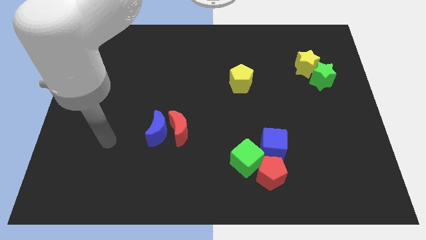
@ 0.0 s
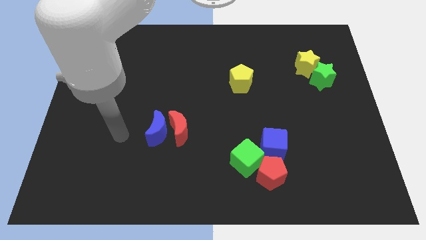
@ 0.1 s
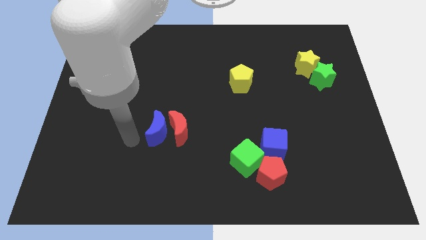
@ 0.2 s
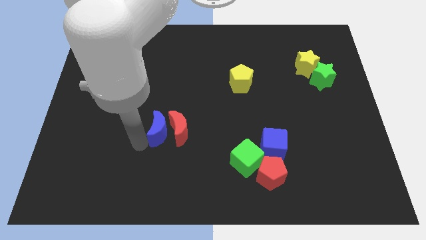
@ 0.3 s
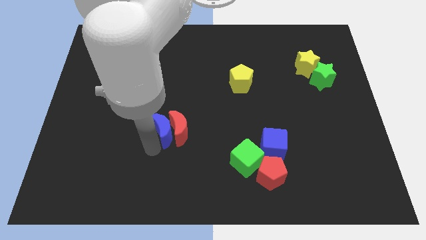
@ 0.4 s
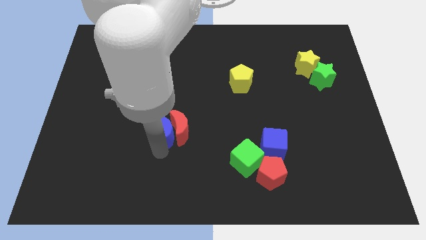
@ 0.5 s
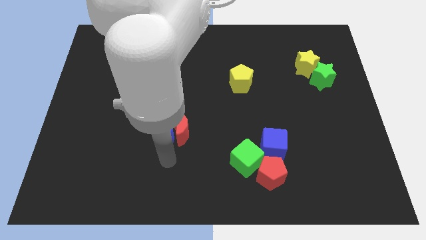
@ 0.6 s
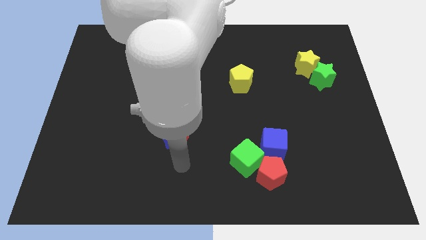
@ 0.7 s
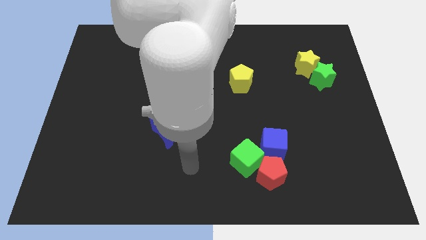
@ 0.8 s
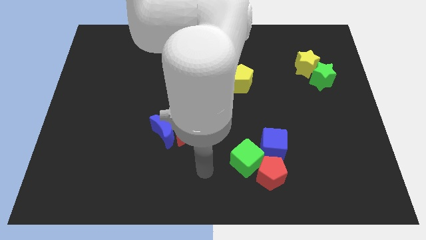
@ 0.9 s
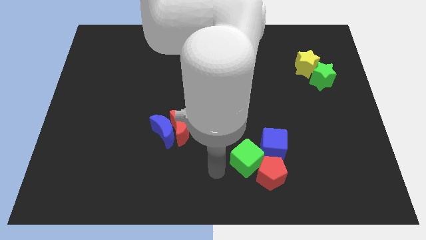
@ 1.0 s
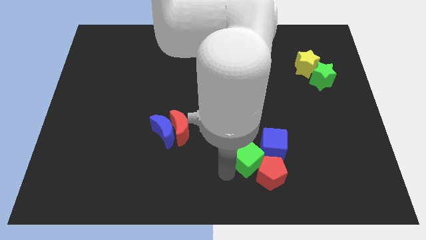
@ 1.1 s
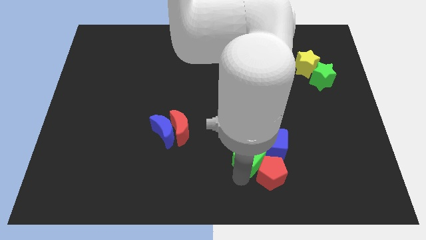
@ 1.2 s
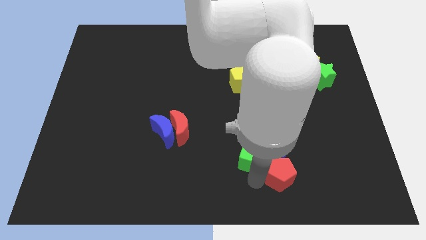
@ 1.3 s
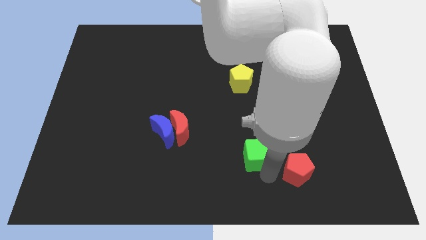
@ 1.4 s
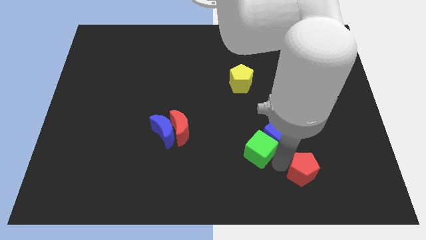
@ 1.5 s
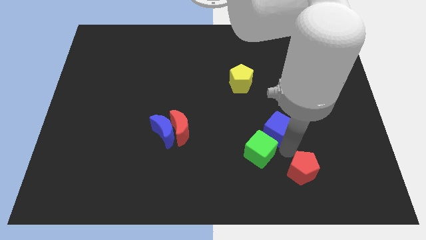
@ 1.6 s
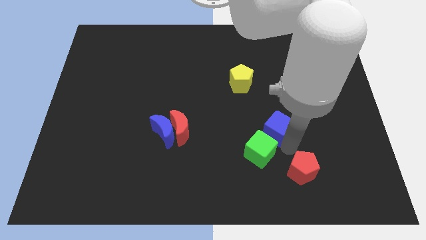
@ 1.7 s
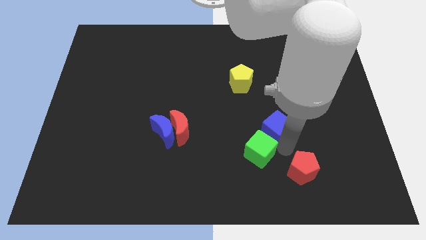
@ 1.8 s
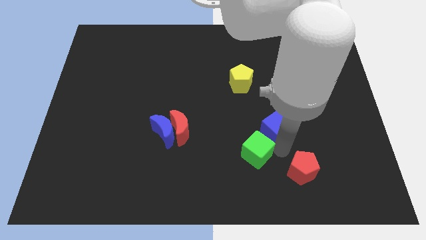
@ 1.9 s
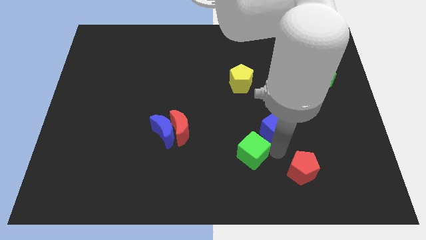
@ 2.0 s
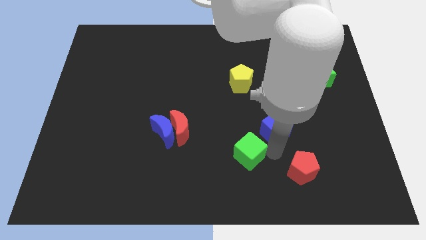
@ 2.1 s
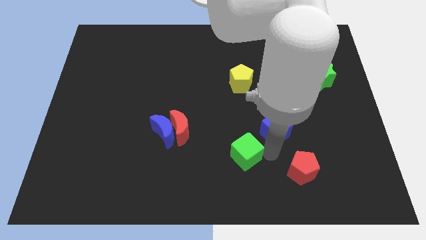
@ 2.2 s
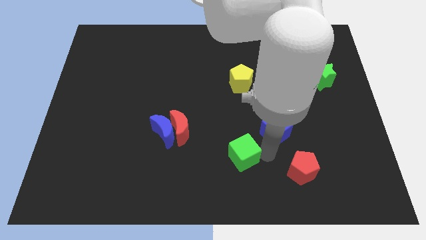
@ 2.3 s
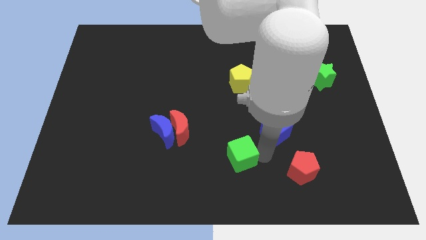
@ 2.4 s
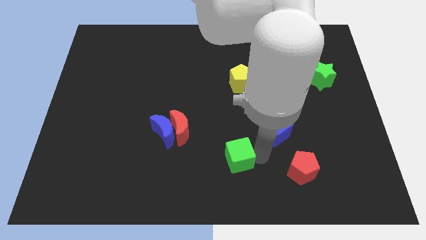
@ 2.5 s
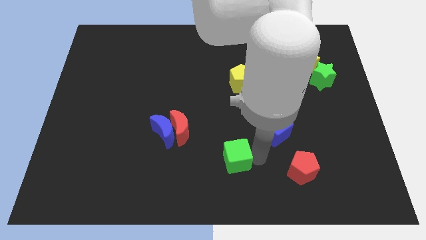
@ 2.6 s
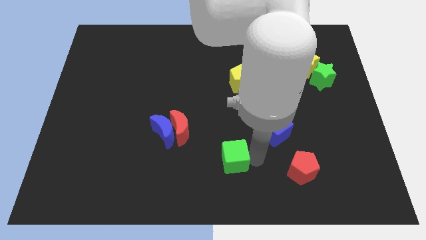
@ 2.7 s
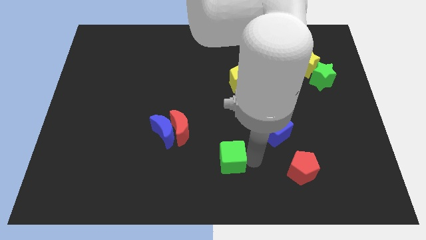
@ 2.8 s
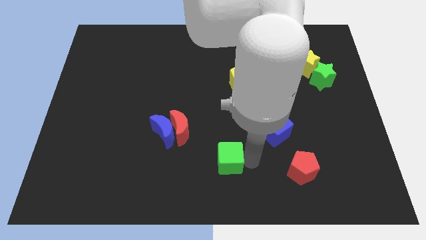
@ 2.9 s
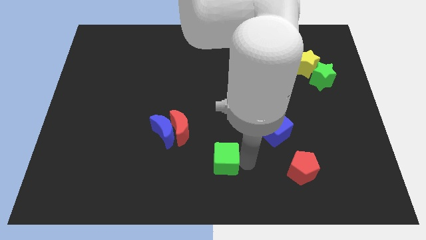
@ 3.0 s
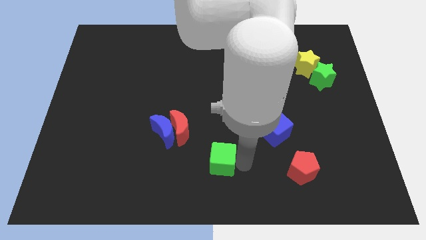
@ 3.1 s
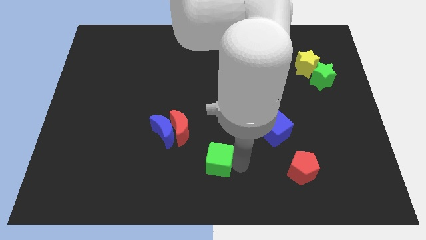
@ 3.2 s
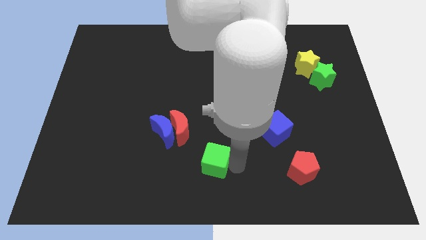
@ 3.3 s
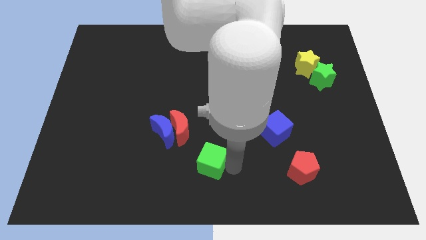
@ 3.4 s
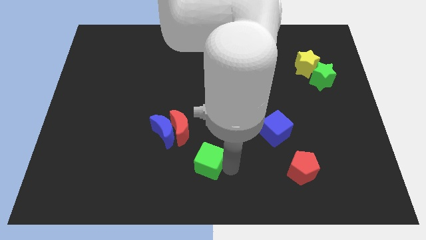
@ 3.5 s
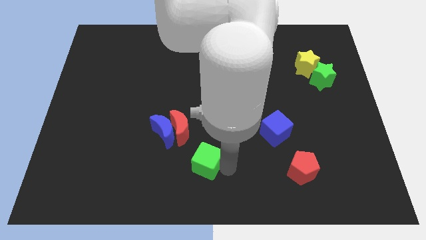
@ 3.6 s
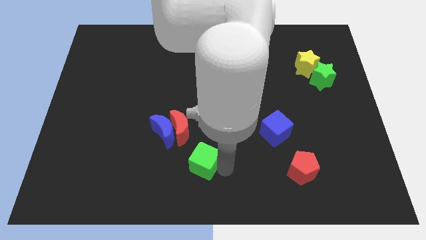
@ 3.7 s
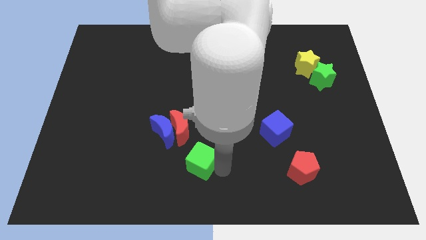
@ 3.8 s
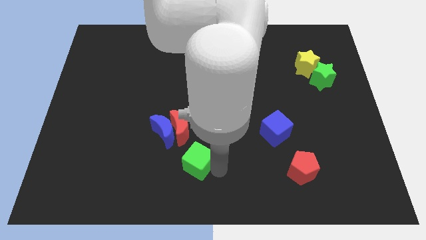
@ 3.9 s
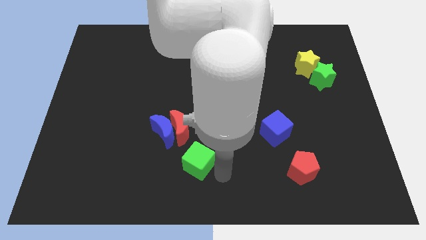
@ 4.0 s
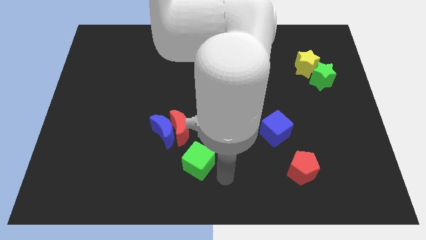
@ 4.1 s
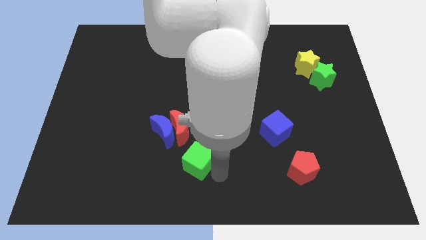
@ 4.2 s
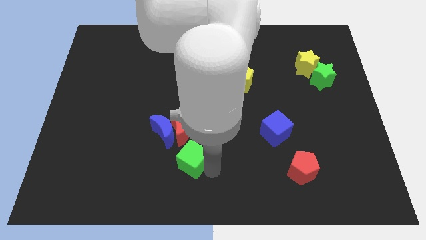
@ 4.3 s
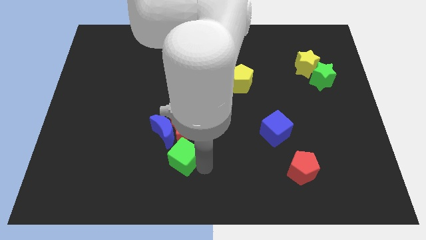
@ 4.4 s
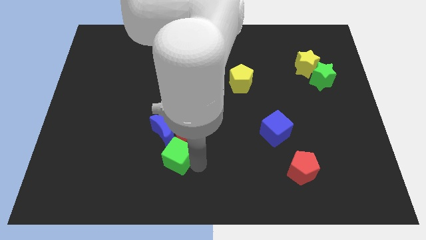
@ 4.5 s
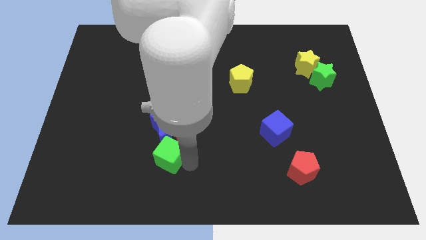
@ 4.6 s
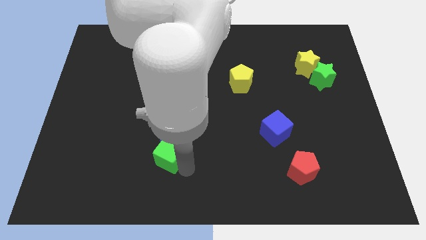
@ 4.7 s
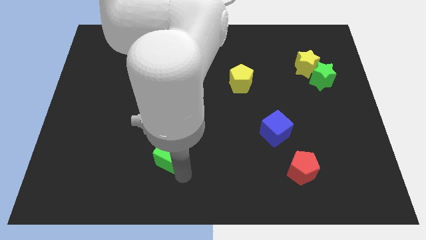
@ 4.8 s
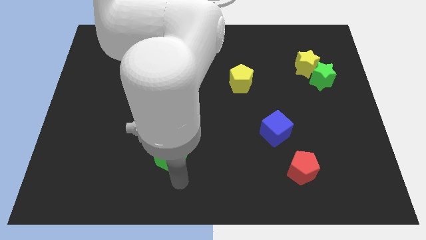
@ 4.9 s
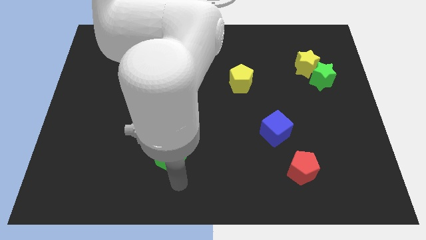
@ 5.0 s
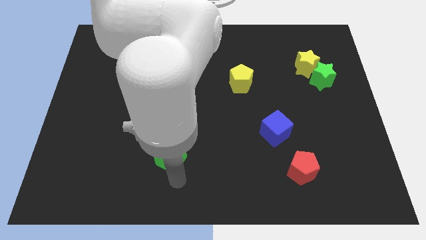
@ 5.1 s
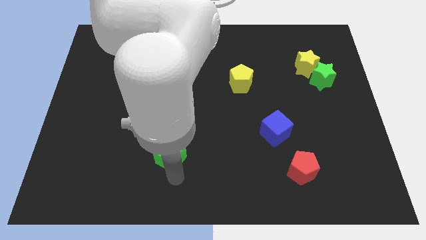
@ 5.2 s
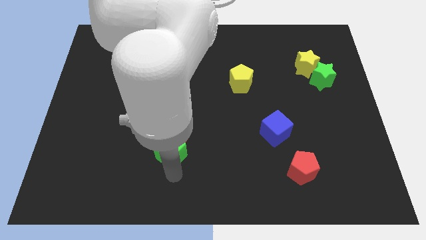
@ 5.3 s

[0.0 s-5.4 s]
put the green cube towards the blue moon

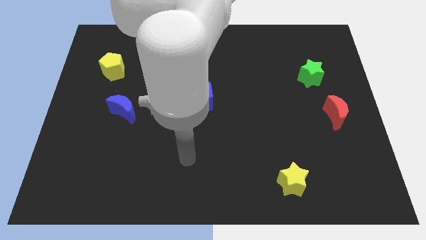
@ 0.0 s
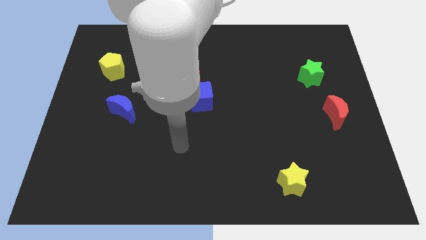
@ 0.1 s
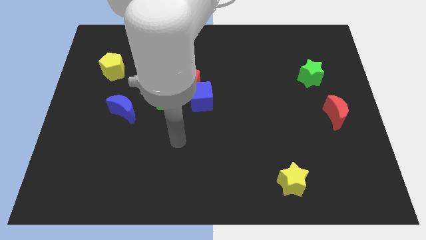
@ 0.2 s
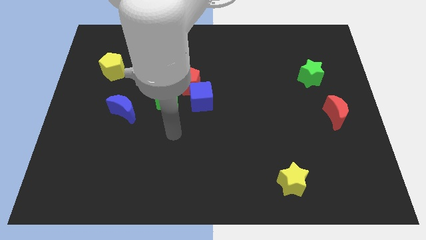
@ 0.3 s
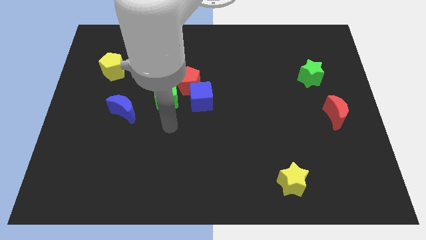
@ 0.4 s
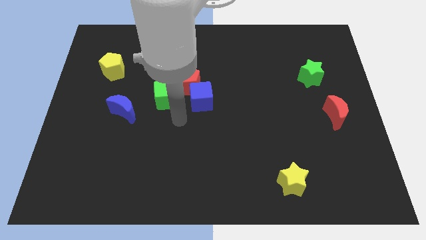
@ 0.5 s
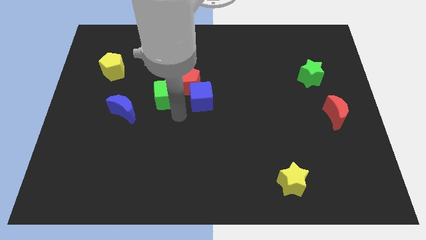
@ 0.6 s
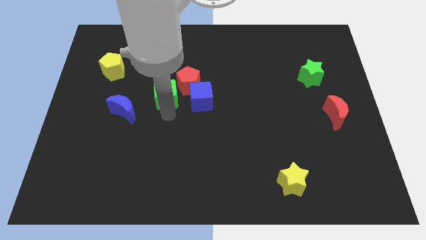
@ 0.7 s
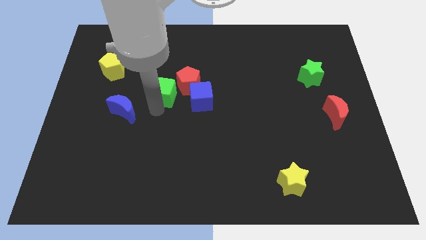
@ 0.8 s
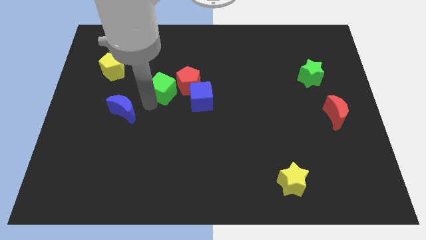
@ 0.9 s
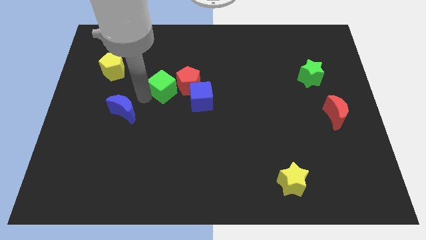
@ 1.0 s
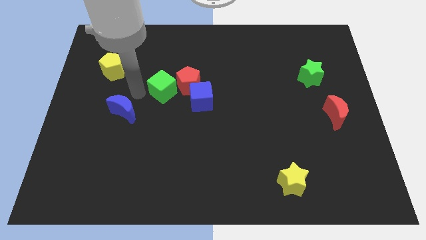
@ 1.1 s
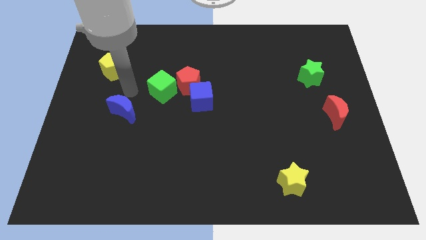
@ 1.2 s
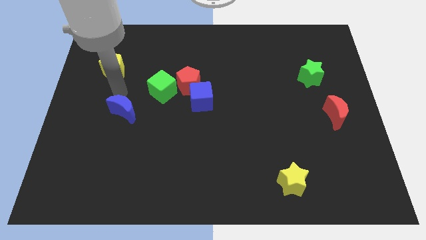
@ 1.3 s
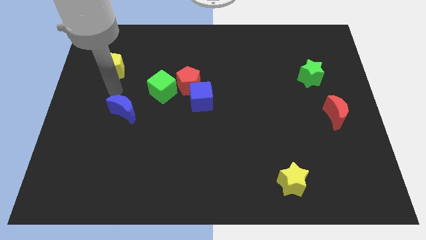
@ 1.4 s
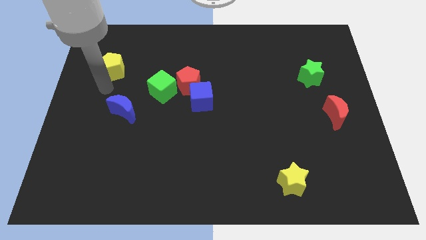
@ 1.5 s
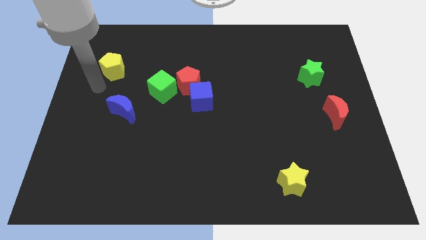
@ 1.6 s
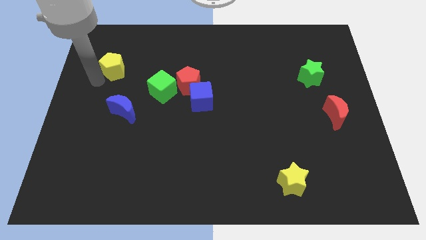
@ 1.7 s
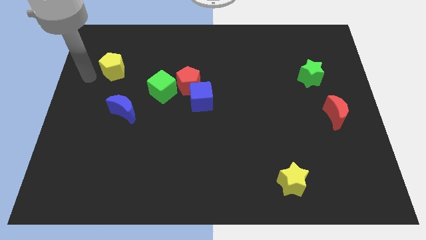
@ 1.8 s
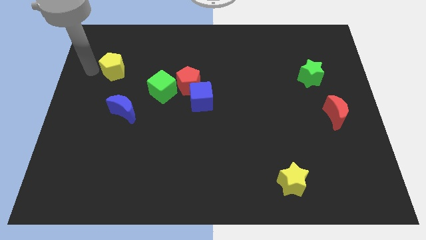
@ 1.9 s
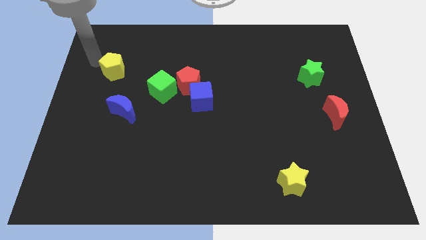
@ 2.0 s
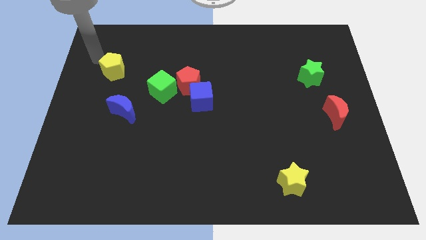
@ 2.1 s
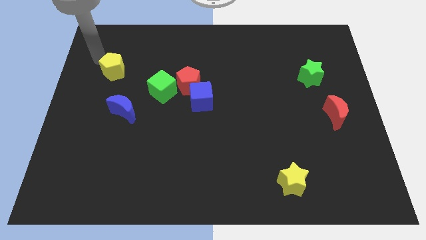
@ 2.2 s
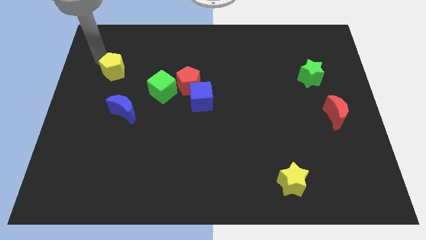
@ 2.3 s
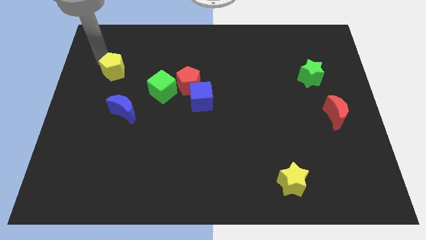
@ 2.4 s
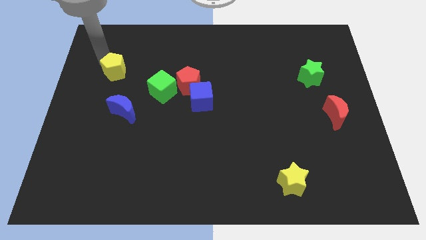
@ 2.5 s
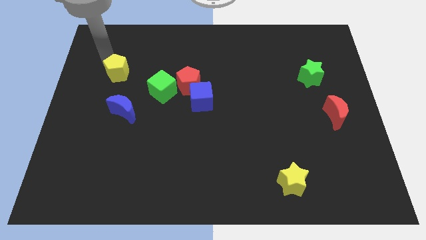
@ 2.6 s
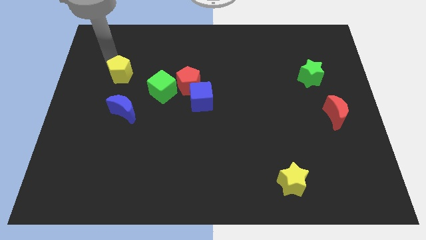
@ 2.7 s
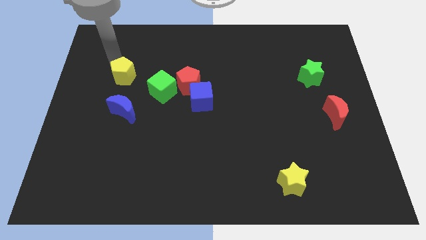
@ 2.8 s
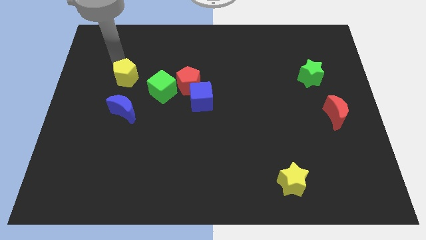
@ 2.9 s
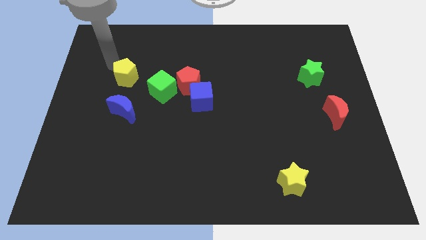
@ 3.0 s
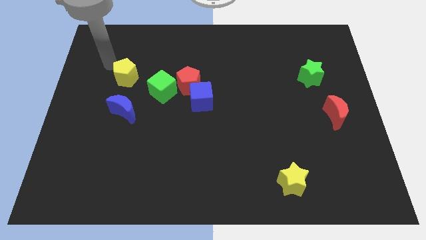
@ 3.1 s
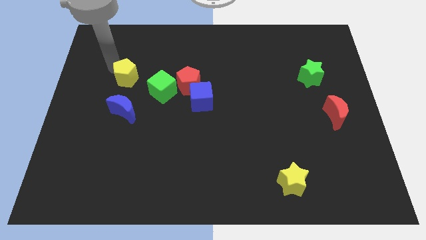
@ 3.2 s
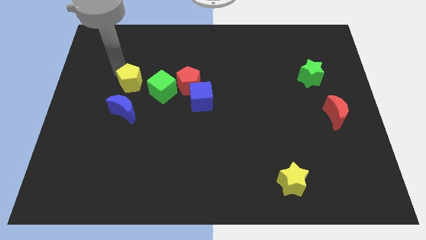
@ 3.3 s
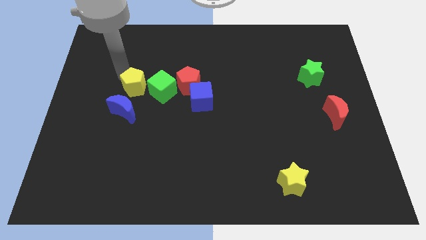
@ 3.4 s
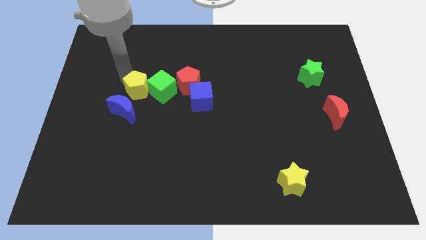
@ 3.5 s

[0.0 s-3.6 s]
put the yellow pentagon next to the green cube
